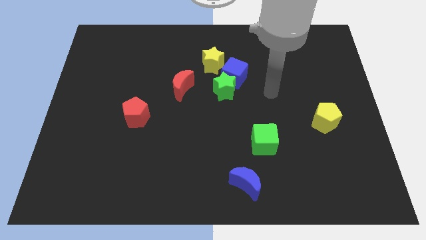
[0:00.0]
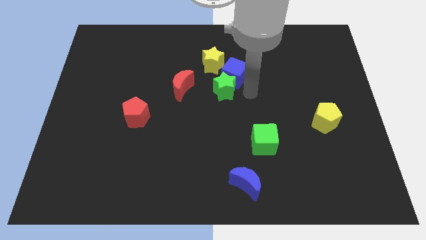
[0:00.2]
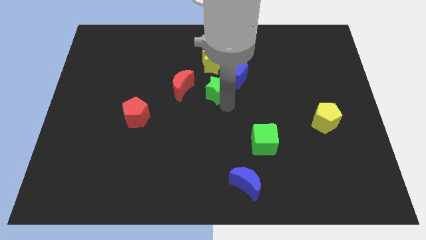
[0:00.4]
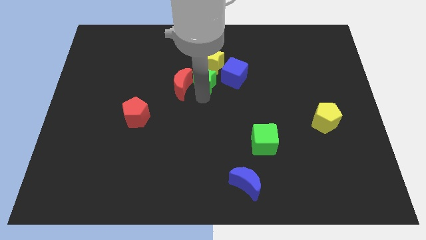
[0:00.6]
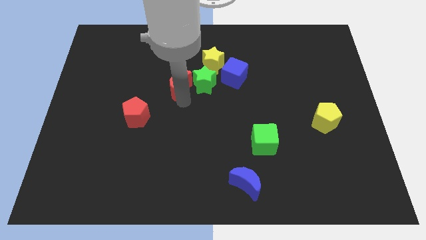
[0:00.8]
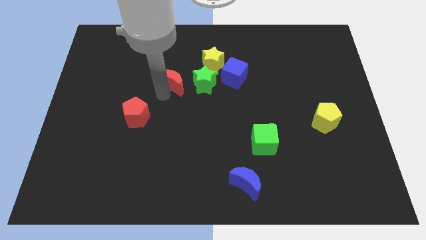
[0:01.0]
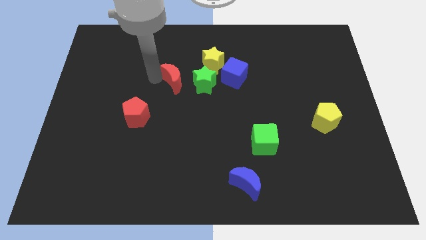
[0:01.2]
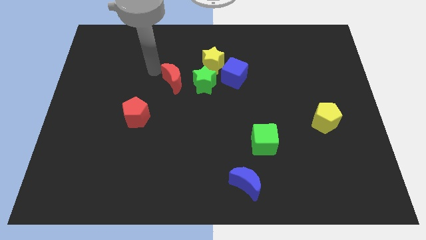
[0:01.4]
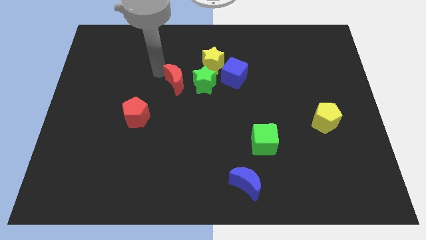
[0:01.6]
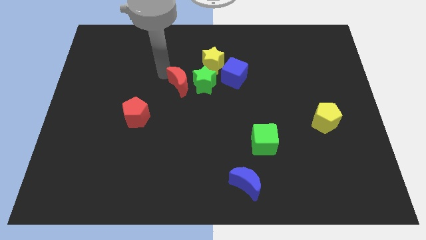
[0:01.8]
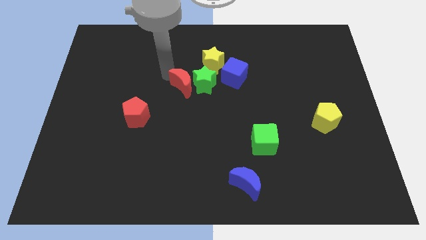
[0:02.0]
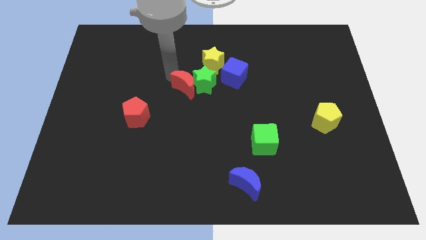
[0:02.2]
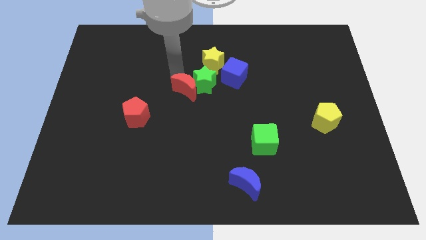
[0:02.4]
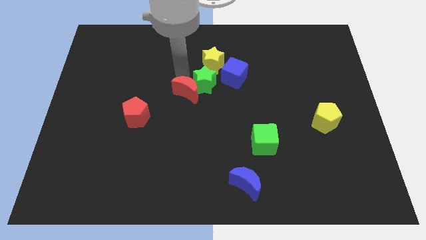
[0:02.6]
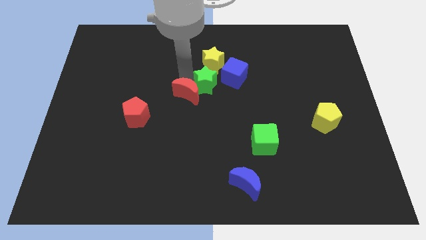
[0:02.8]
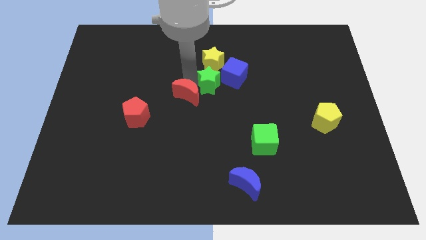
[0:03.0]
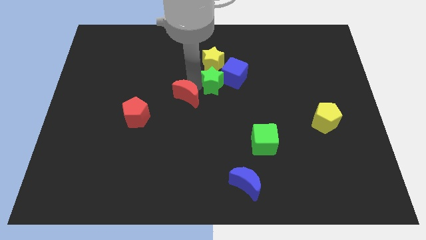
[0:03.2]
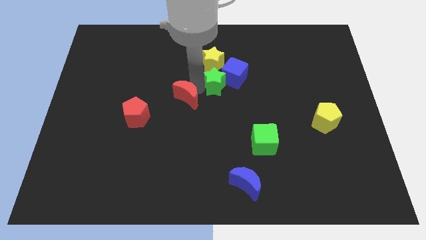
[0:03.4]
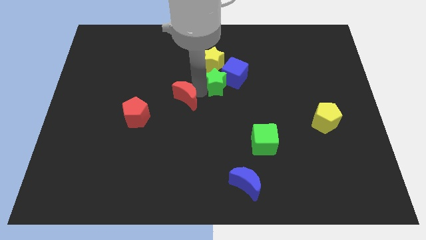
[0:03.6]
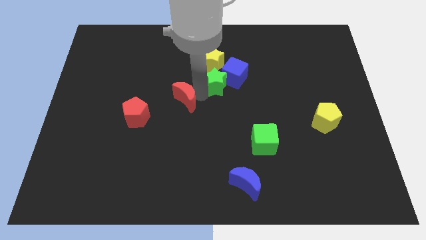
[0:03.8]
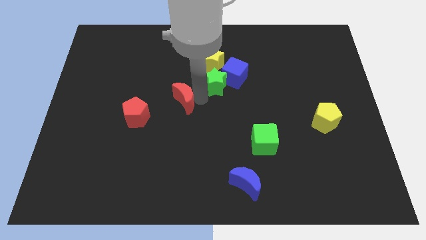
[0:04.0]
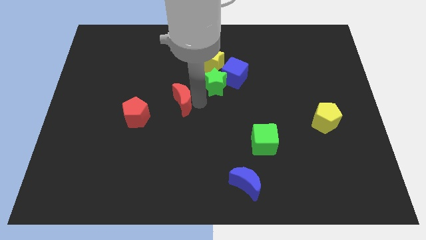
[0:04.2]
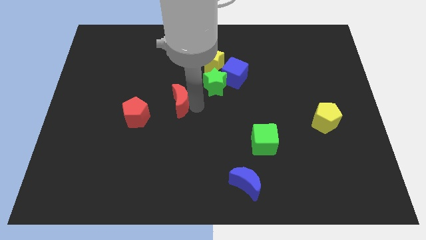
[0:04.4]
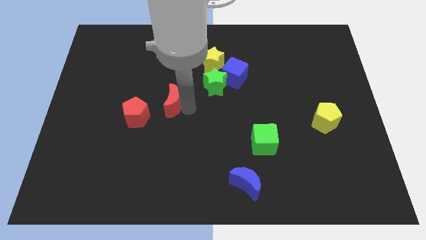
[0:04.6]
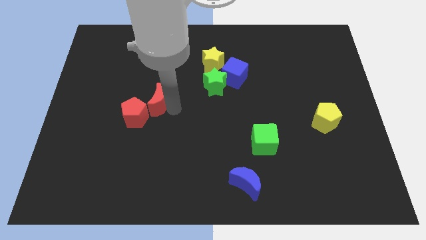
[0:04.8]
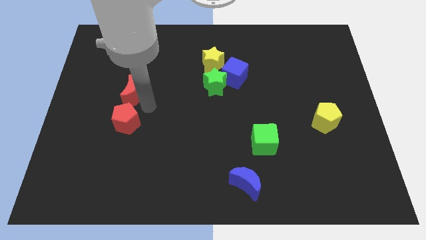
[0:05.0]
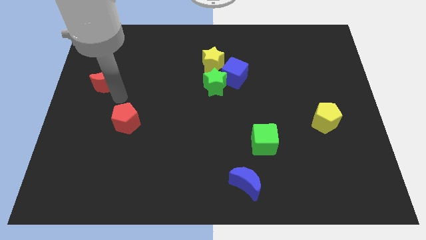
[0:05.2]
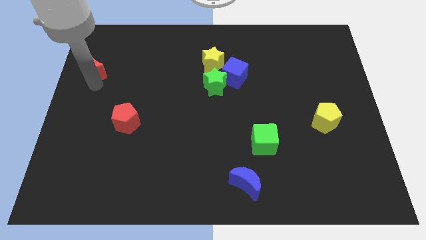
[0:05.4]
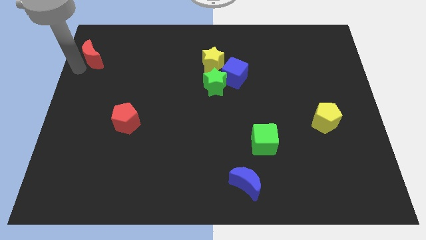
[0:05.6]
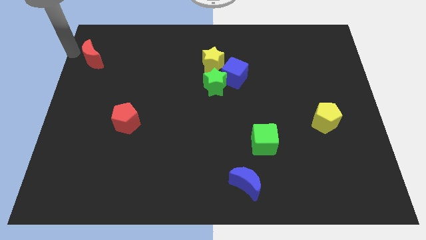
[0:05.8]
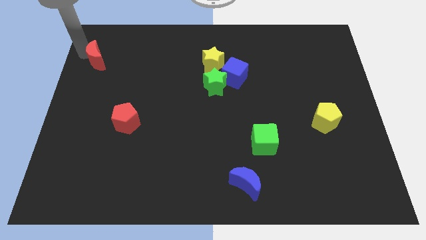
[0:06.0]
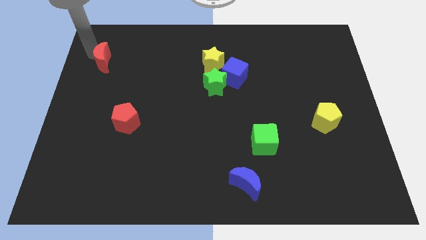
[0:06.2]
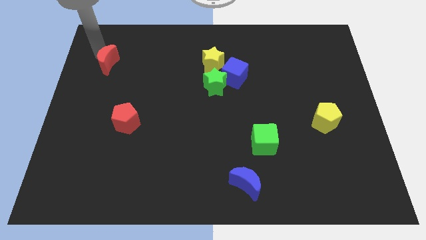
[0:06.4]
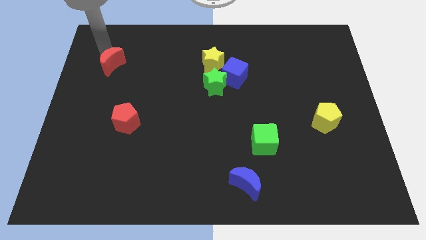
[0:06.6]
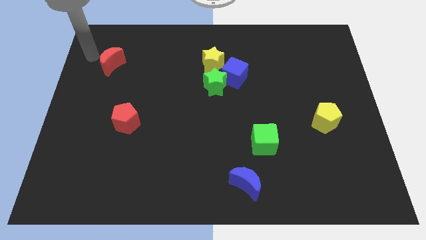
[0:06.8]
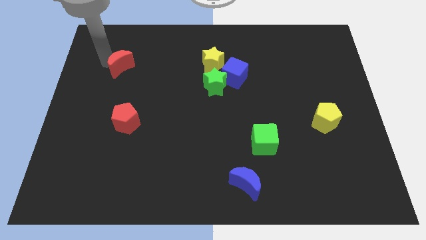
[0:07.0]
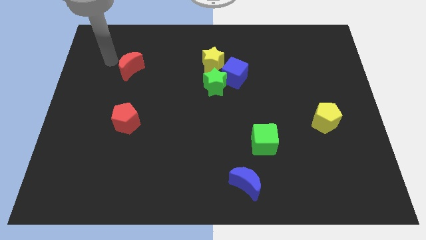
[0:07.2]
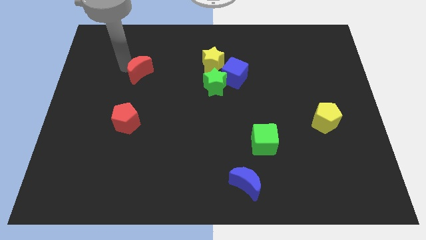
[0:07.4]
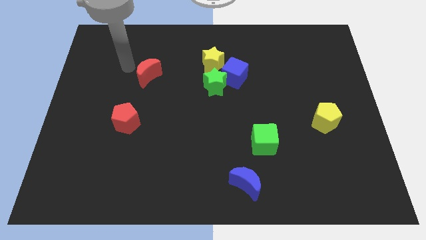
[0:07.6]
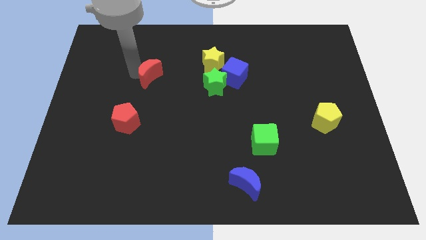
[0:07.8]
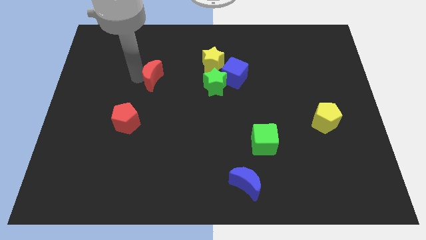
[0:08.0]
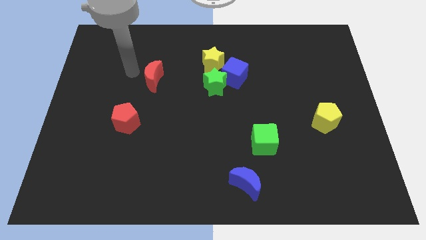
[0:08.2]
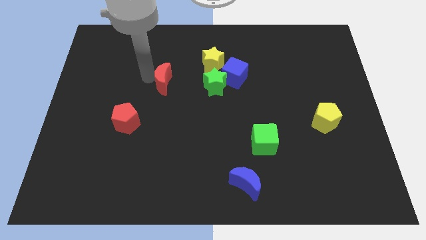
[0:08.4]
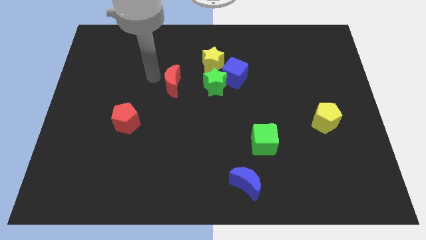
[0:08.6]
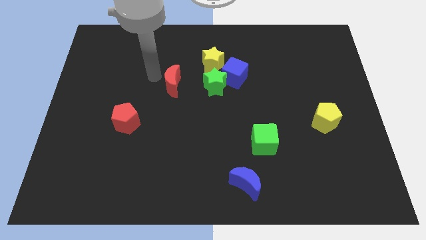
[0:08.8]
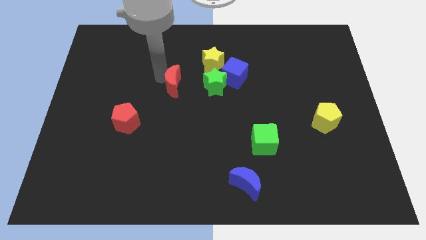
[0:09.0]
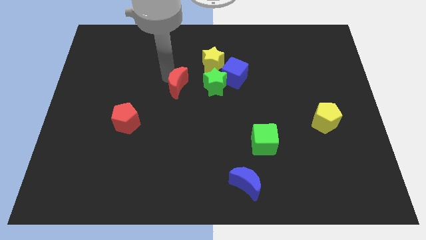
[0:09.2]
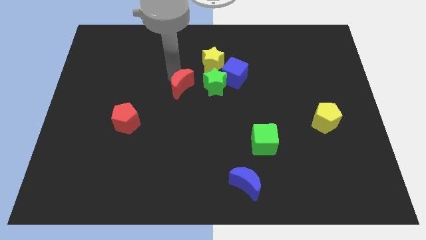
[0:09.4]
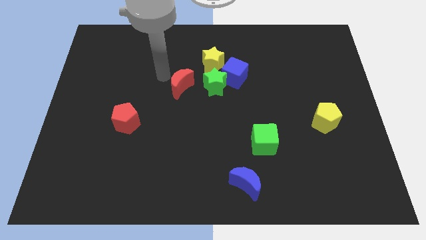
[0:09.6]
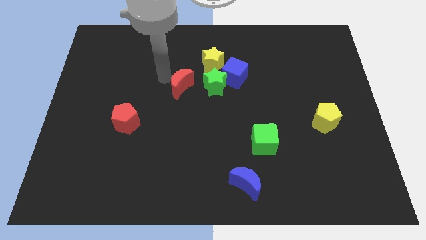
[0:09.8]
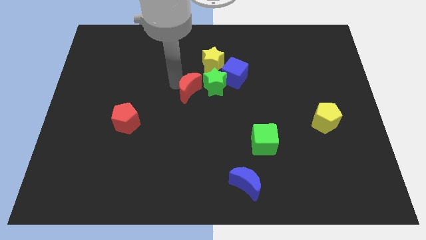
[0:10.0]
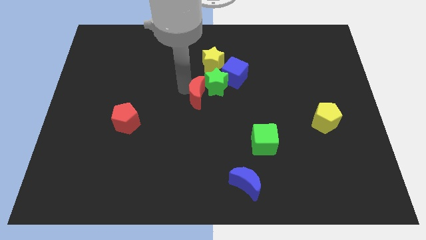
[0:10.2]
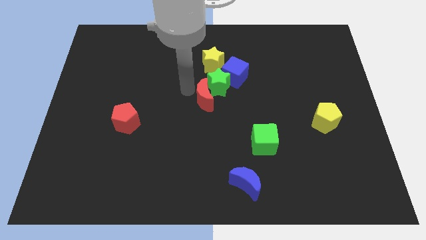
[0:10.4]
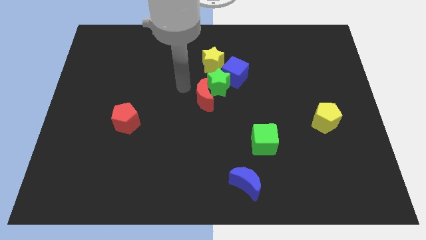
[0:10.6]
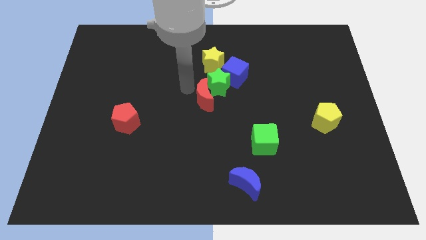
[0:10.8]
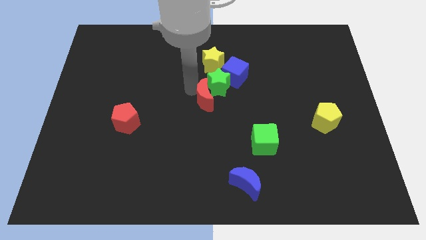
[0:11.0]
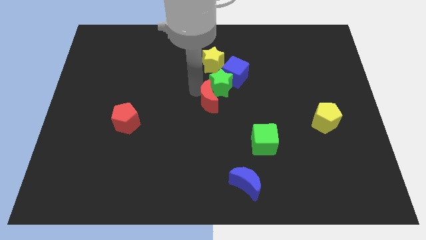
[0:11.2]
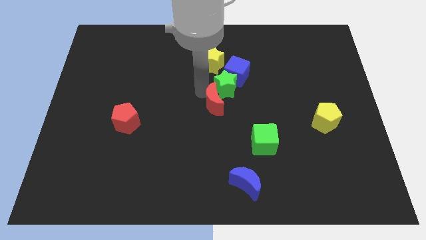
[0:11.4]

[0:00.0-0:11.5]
slightly slide the red moon right

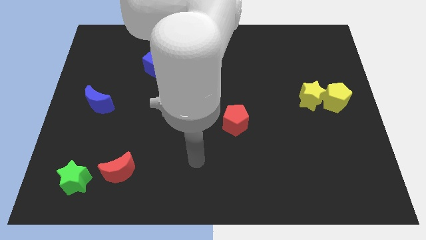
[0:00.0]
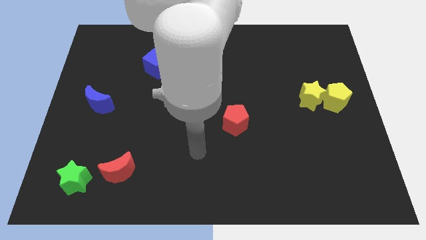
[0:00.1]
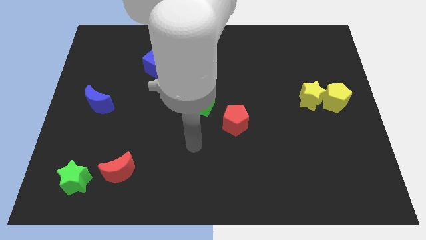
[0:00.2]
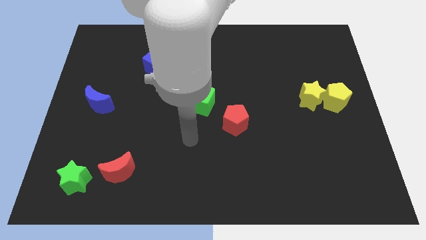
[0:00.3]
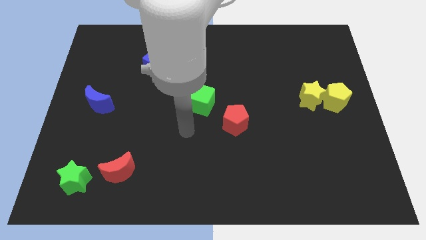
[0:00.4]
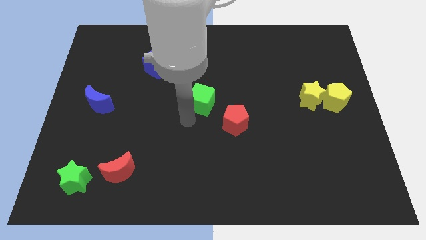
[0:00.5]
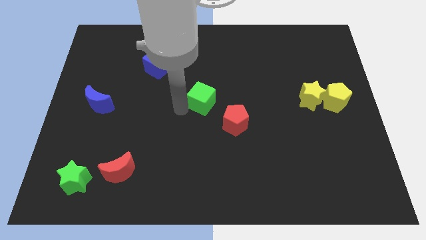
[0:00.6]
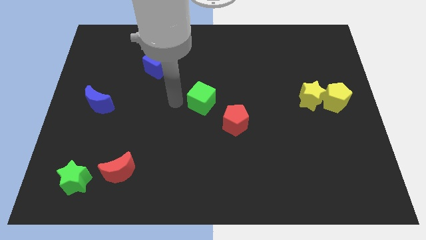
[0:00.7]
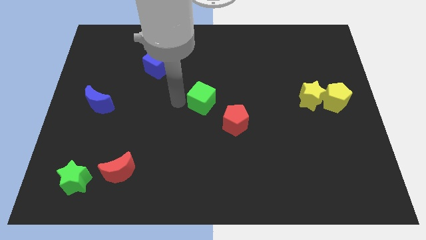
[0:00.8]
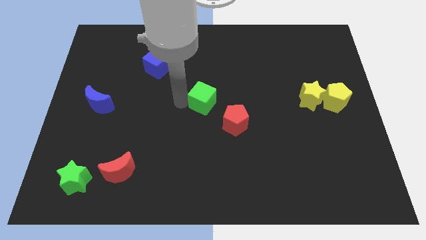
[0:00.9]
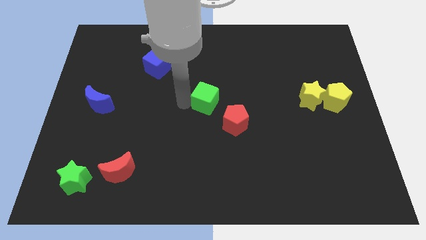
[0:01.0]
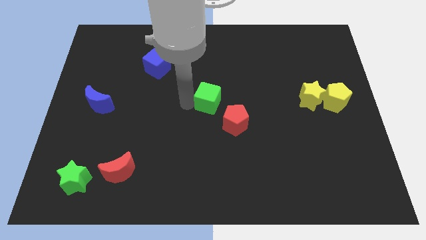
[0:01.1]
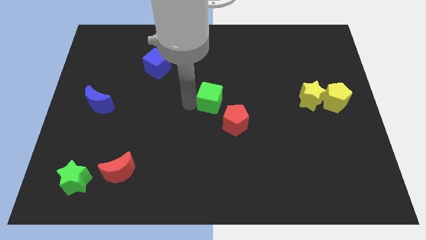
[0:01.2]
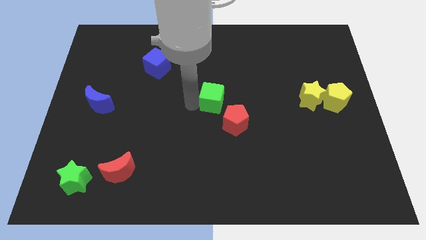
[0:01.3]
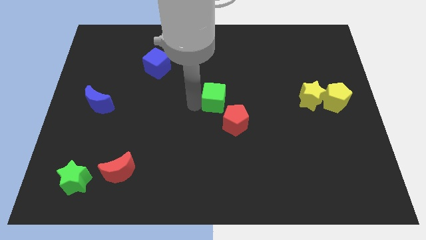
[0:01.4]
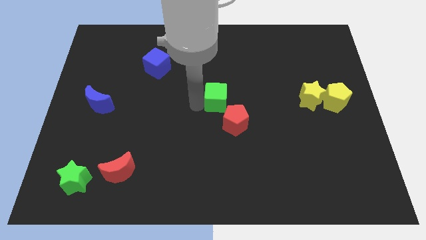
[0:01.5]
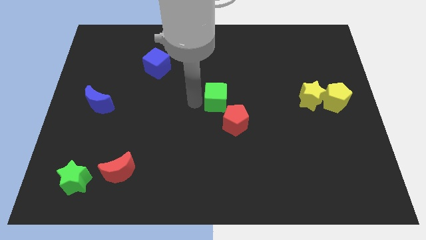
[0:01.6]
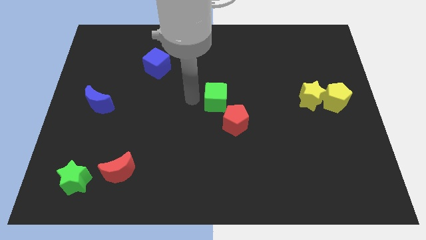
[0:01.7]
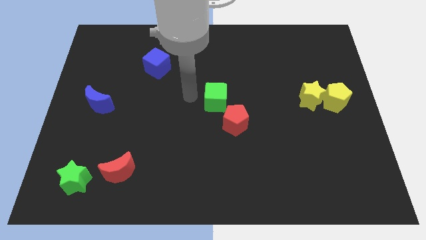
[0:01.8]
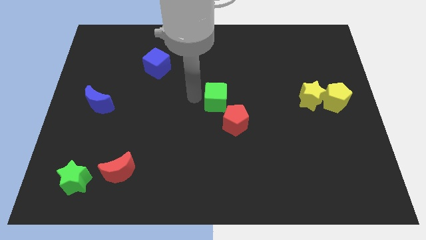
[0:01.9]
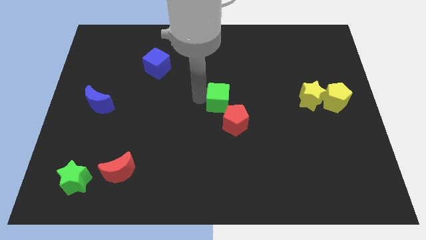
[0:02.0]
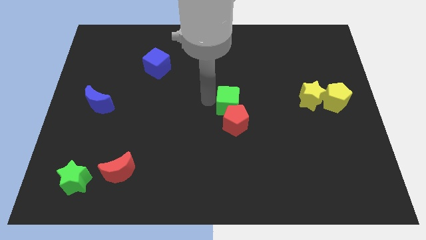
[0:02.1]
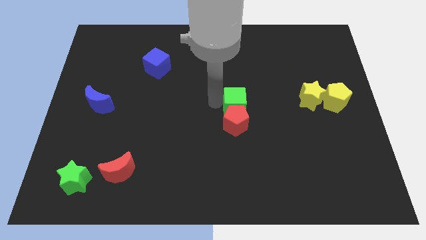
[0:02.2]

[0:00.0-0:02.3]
push the green cube to the right somewhat
